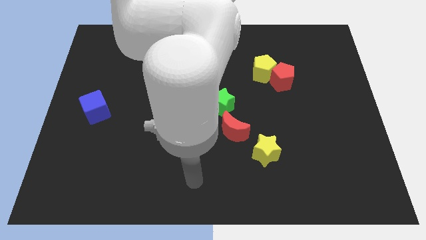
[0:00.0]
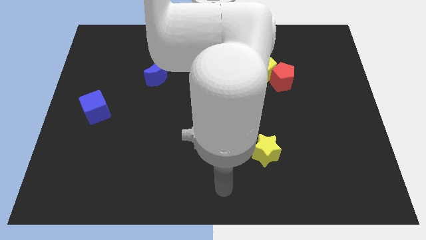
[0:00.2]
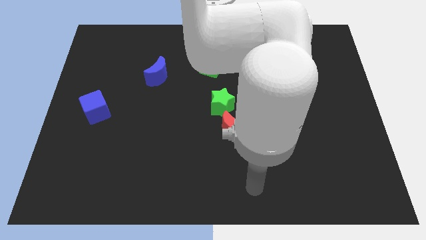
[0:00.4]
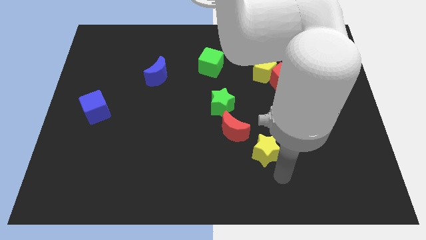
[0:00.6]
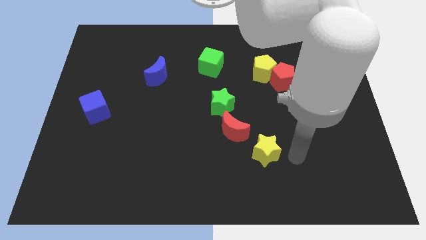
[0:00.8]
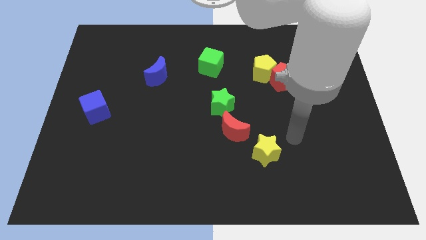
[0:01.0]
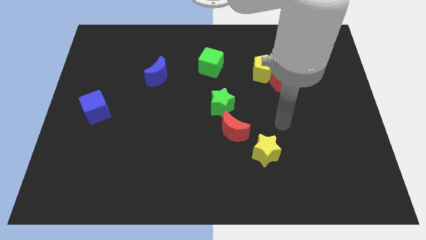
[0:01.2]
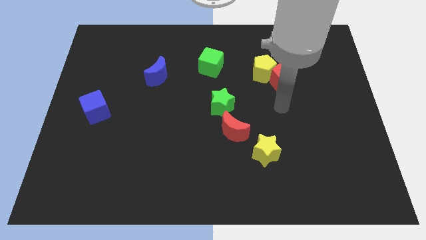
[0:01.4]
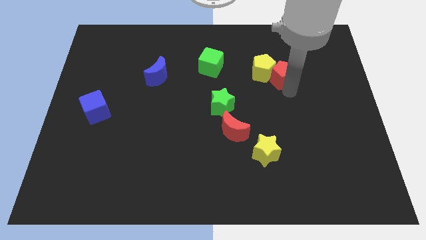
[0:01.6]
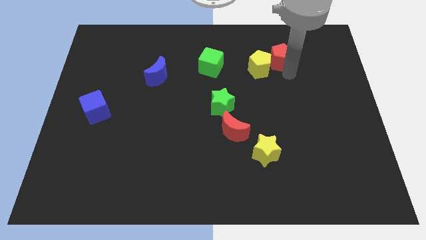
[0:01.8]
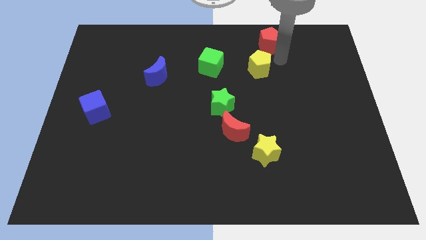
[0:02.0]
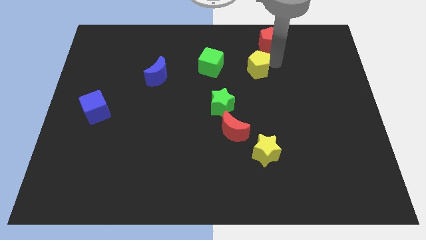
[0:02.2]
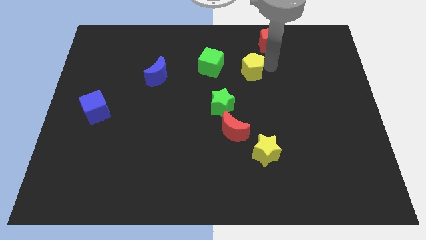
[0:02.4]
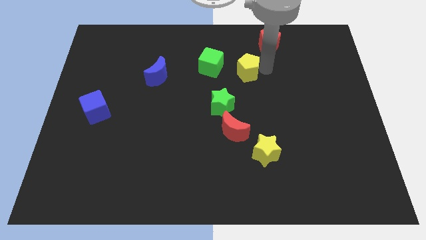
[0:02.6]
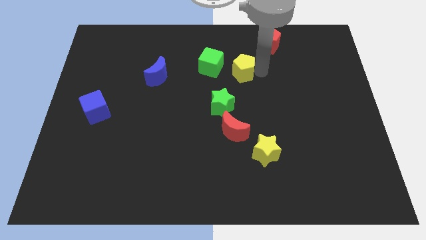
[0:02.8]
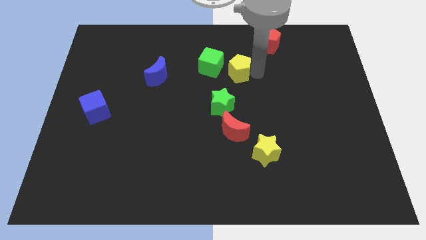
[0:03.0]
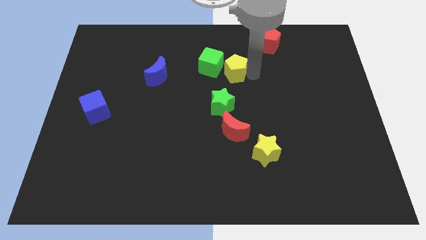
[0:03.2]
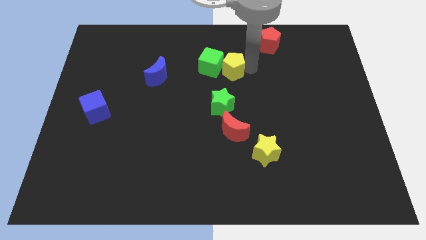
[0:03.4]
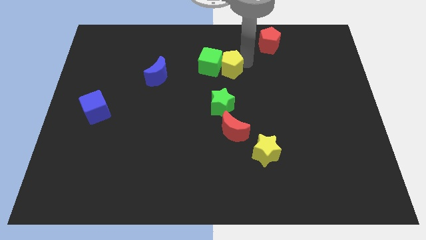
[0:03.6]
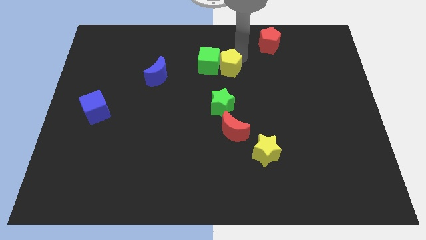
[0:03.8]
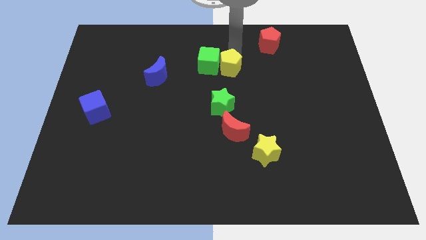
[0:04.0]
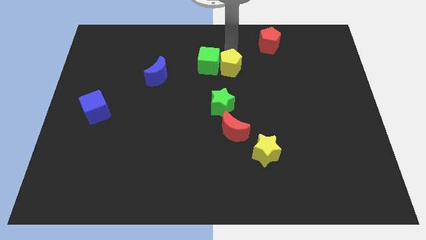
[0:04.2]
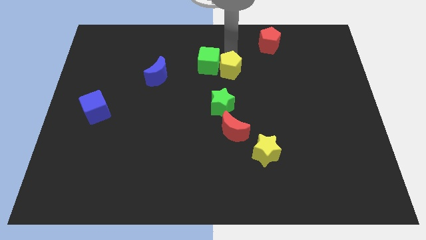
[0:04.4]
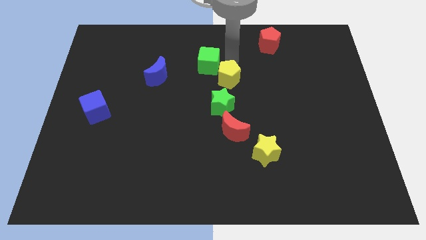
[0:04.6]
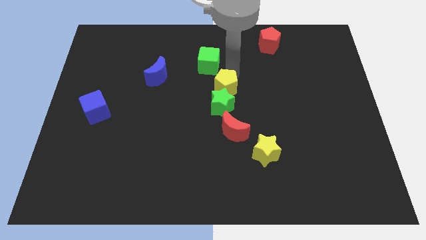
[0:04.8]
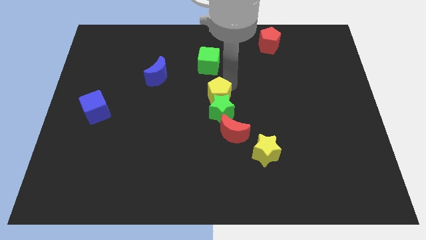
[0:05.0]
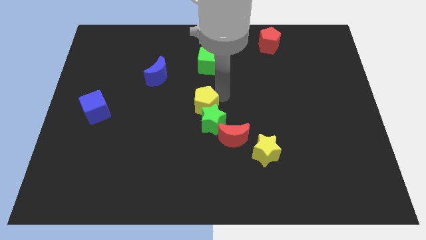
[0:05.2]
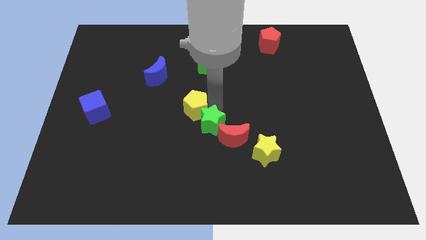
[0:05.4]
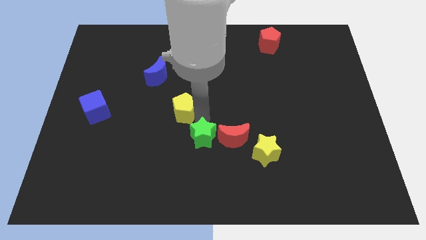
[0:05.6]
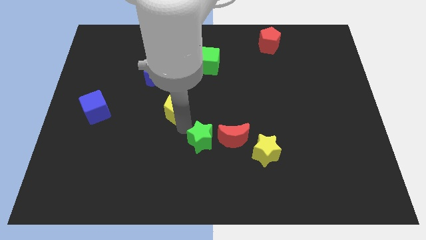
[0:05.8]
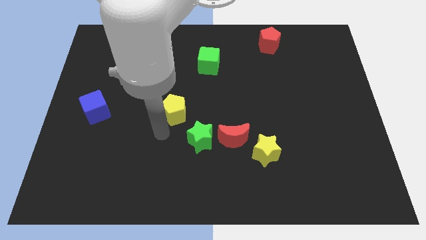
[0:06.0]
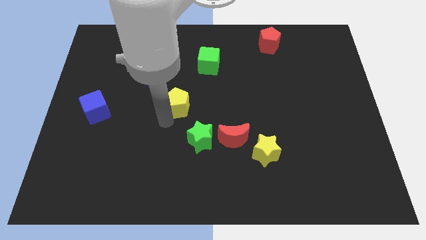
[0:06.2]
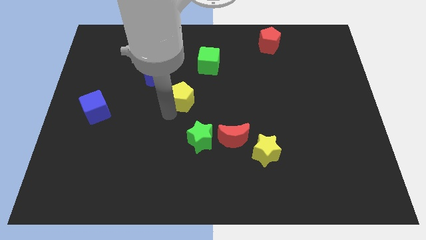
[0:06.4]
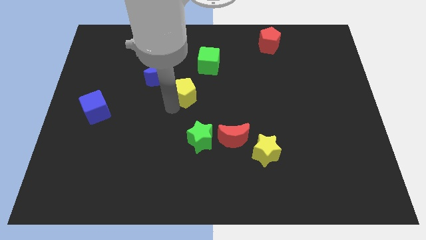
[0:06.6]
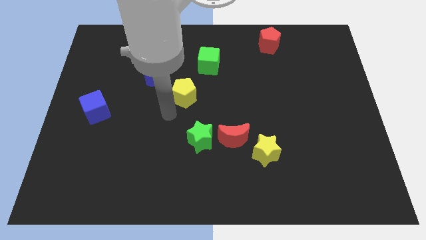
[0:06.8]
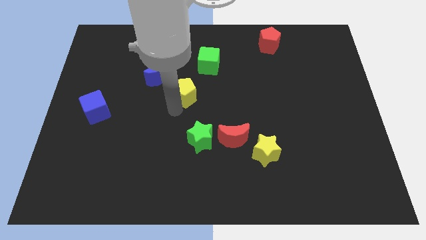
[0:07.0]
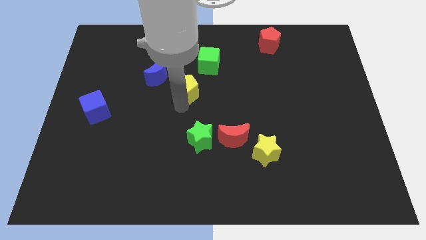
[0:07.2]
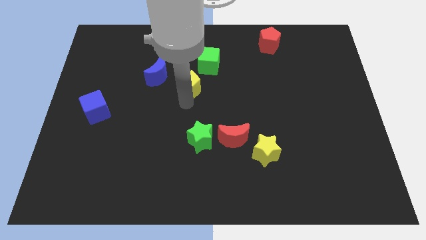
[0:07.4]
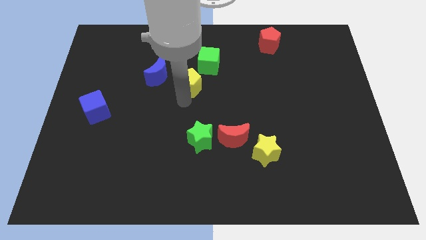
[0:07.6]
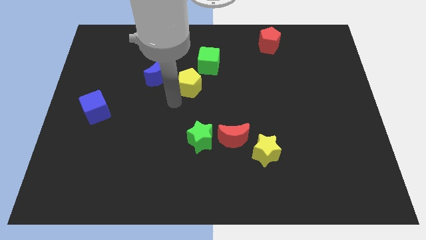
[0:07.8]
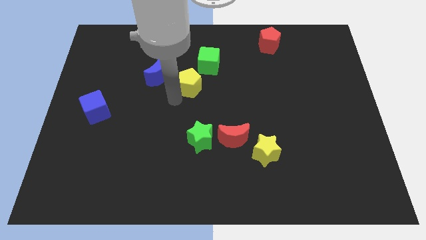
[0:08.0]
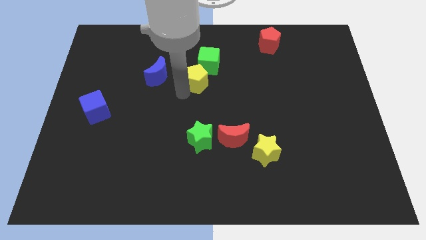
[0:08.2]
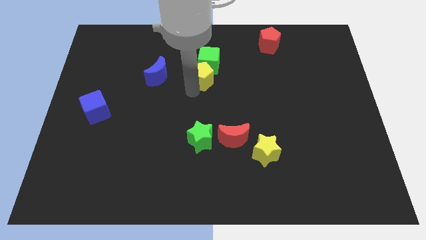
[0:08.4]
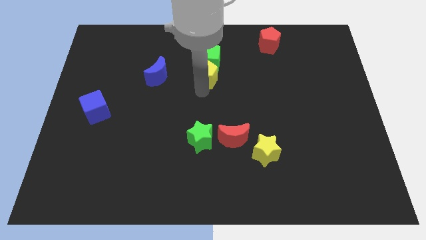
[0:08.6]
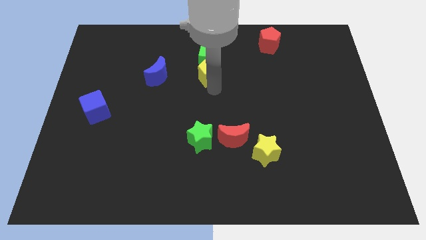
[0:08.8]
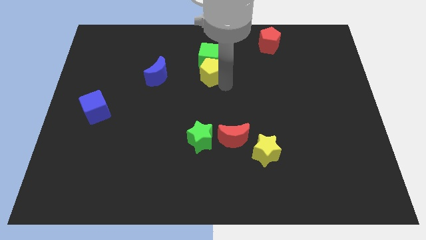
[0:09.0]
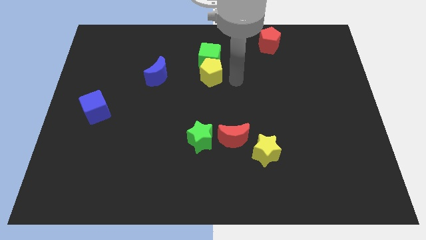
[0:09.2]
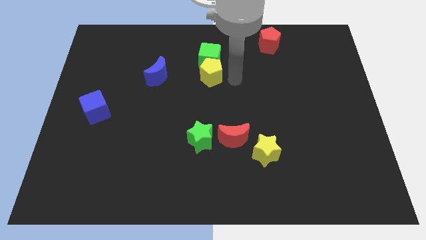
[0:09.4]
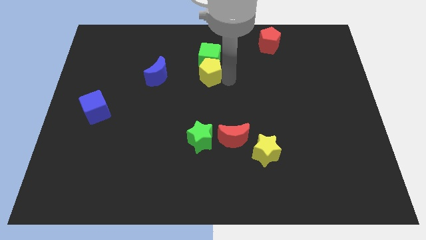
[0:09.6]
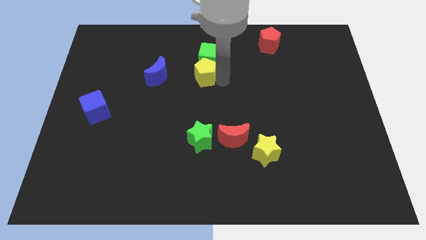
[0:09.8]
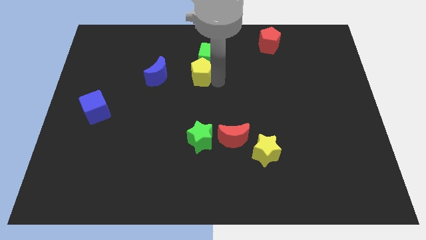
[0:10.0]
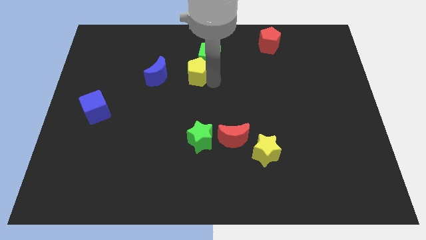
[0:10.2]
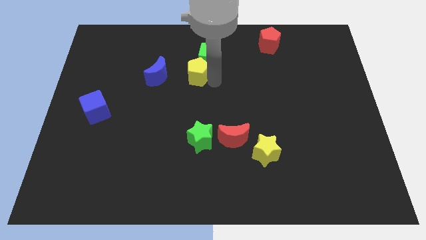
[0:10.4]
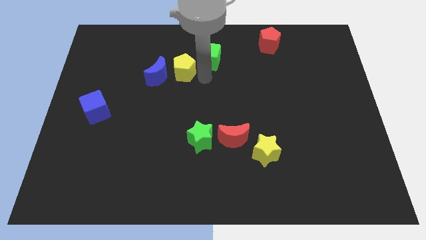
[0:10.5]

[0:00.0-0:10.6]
move the yellow pentagon left

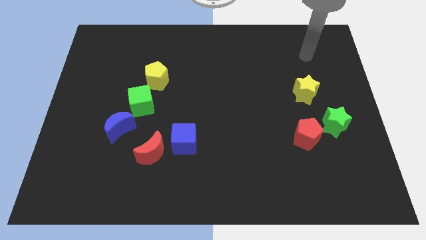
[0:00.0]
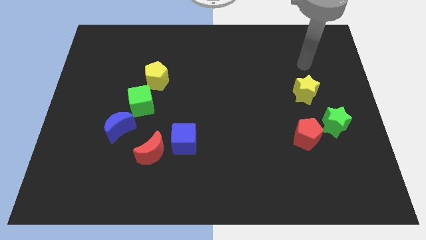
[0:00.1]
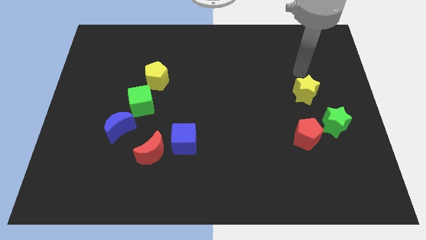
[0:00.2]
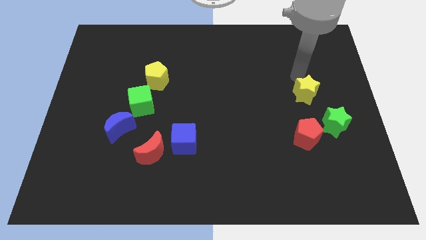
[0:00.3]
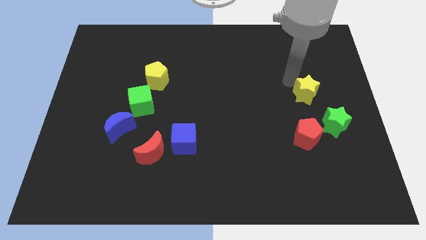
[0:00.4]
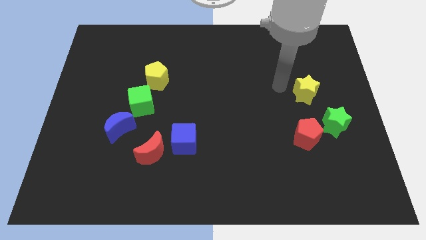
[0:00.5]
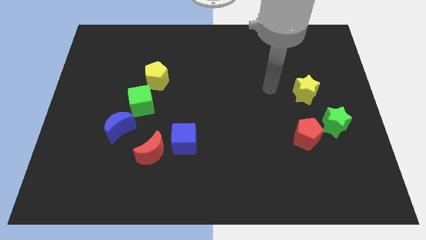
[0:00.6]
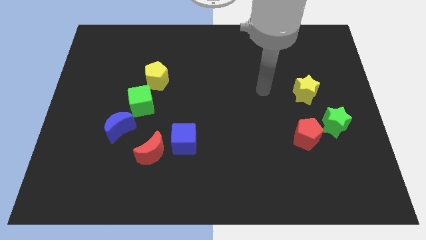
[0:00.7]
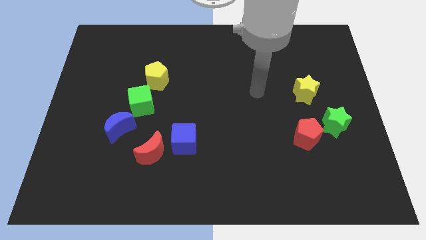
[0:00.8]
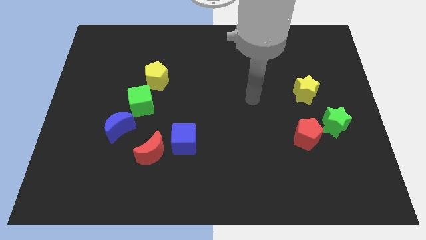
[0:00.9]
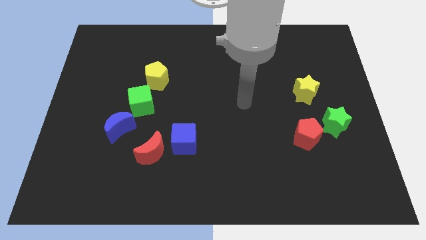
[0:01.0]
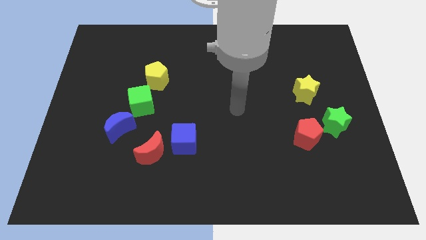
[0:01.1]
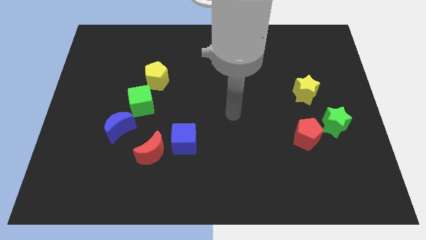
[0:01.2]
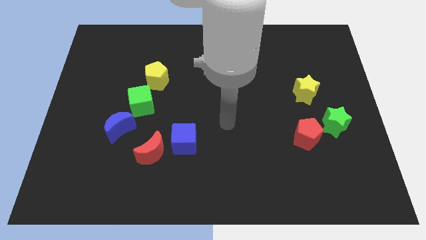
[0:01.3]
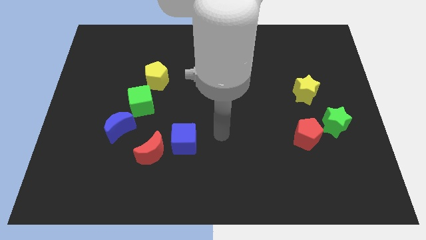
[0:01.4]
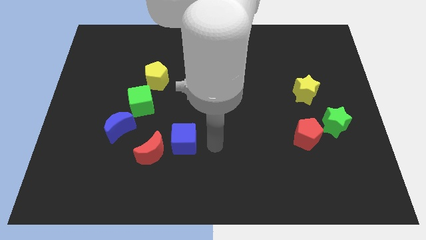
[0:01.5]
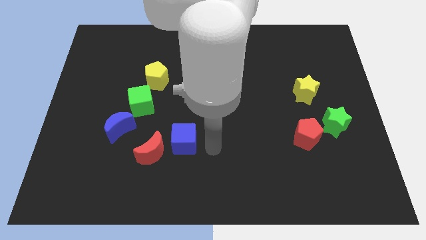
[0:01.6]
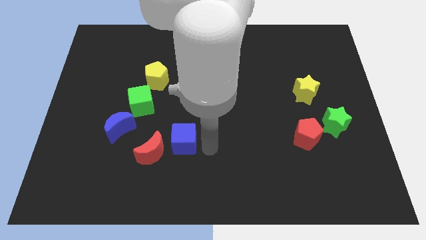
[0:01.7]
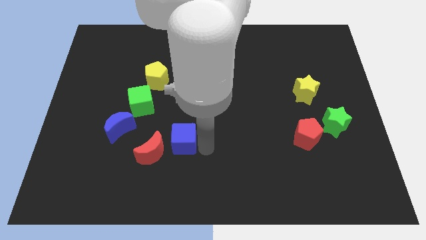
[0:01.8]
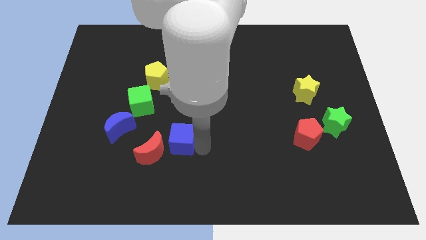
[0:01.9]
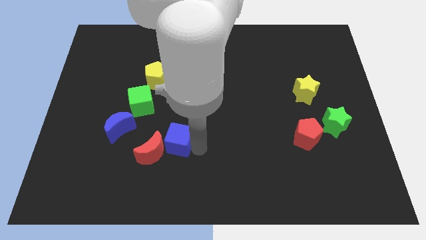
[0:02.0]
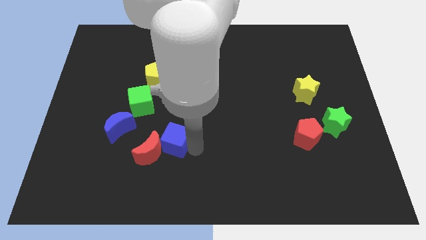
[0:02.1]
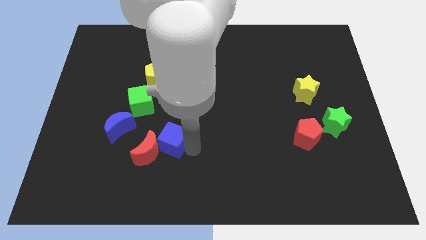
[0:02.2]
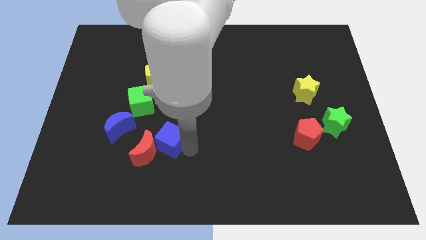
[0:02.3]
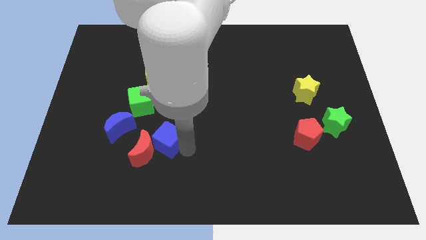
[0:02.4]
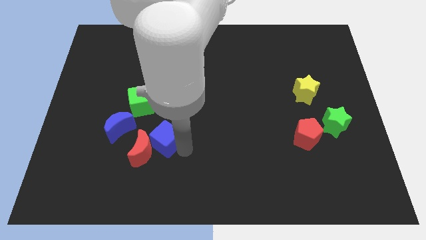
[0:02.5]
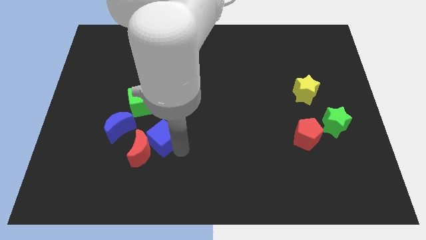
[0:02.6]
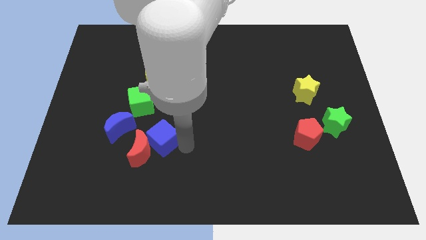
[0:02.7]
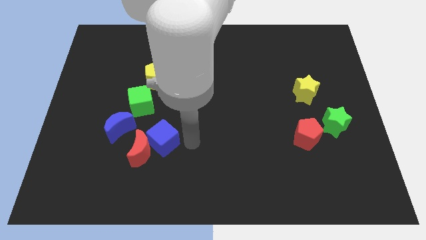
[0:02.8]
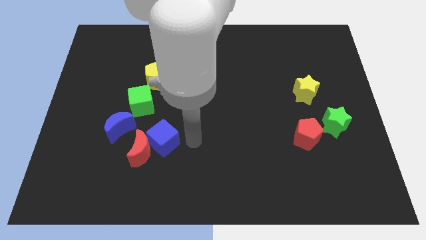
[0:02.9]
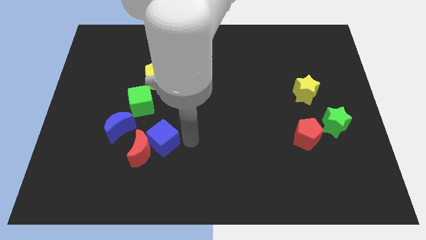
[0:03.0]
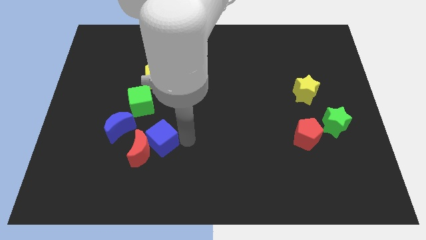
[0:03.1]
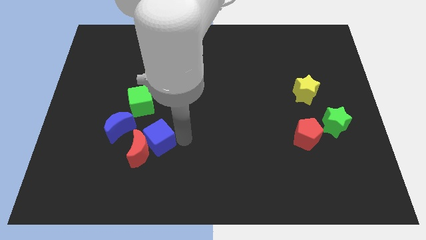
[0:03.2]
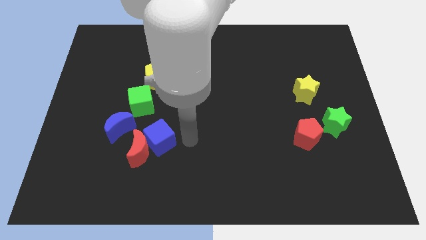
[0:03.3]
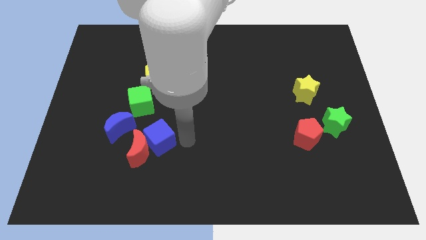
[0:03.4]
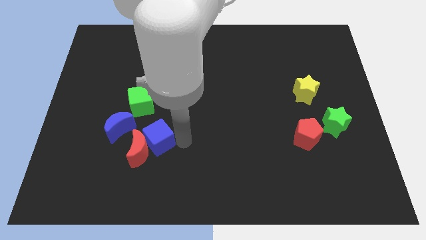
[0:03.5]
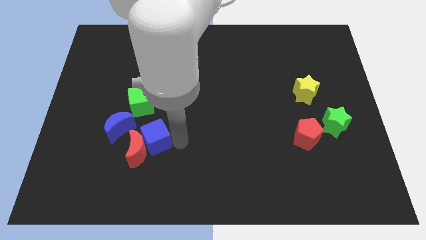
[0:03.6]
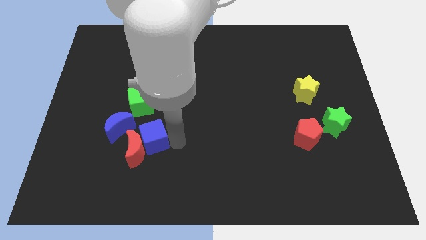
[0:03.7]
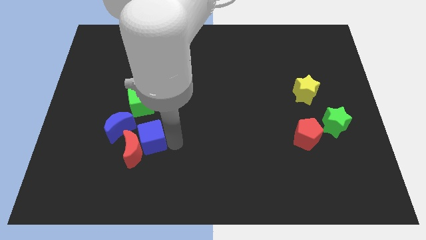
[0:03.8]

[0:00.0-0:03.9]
slide the blue cube a bit to the left
